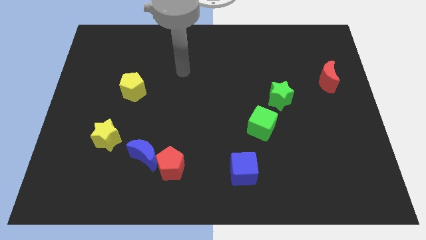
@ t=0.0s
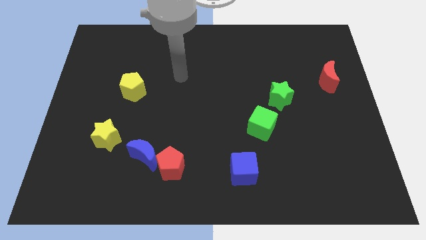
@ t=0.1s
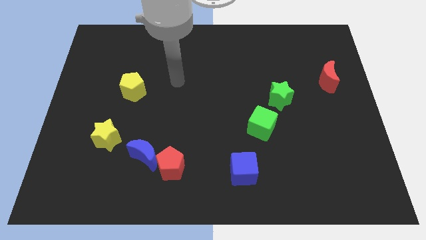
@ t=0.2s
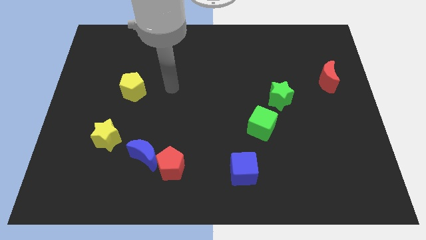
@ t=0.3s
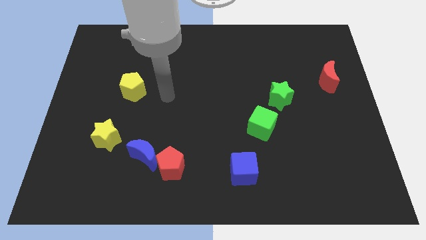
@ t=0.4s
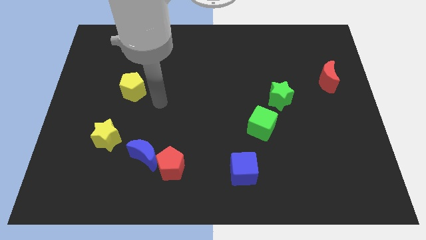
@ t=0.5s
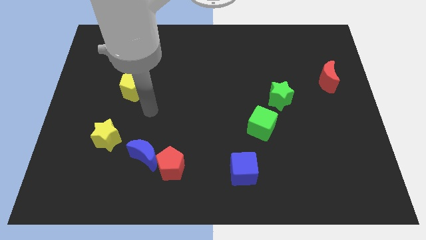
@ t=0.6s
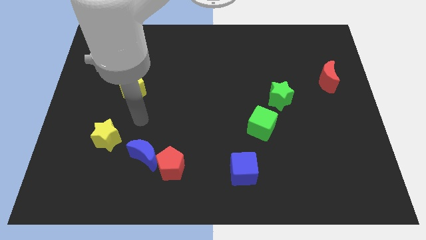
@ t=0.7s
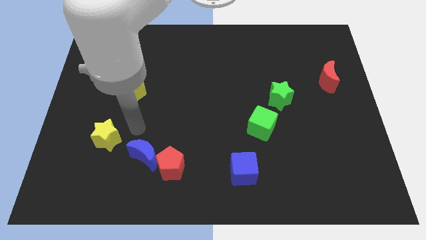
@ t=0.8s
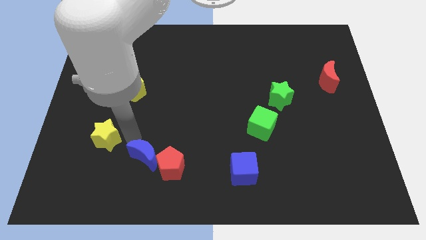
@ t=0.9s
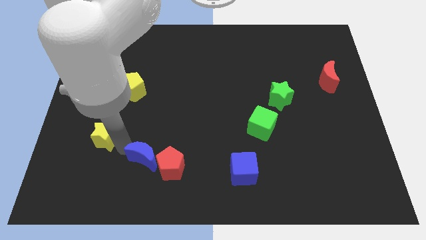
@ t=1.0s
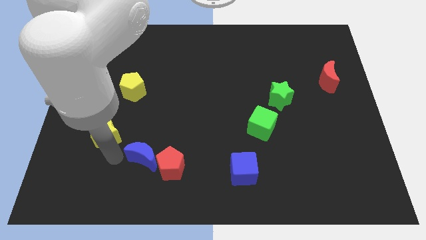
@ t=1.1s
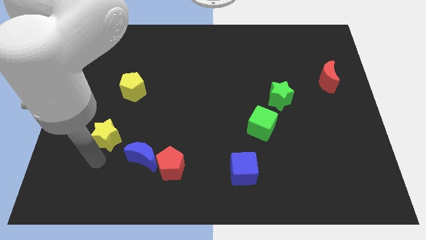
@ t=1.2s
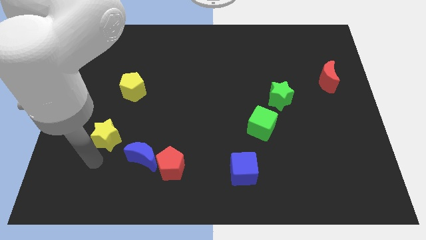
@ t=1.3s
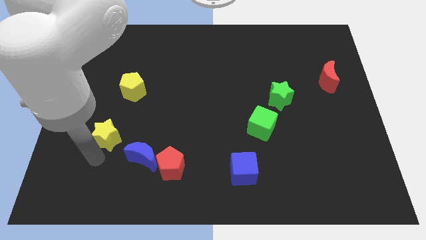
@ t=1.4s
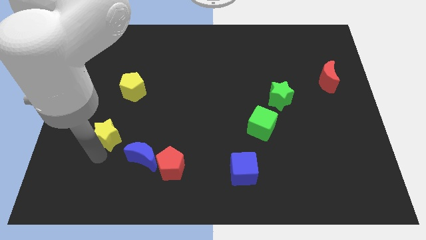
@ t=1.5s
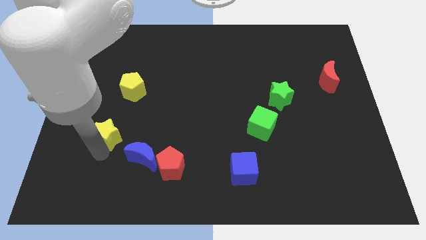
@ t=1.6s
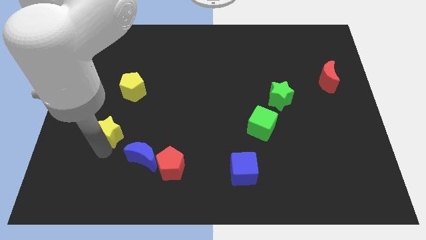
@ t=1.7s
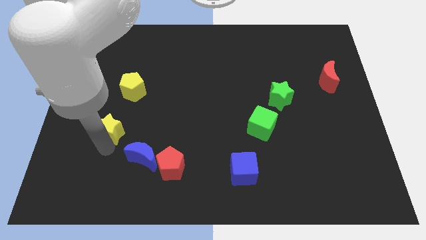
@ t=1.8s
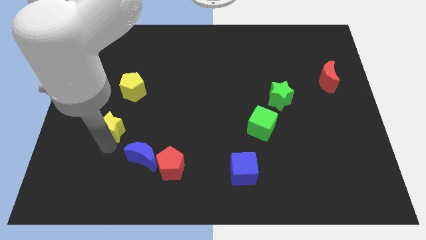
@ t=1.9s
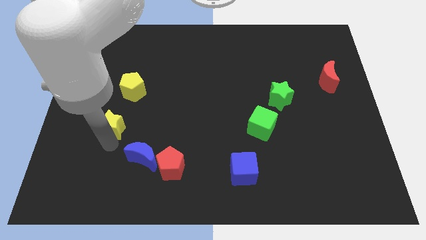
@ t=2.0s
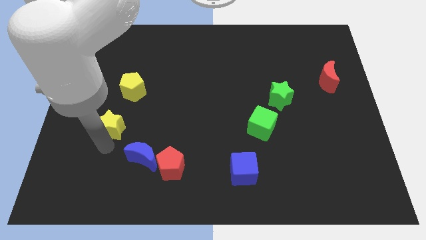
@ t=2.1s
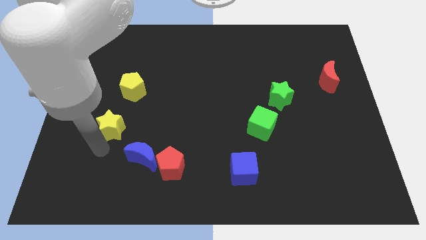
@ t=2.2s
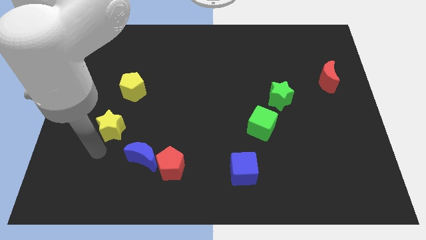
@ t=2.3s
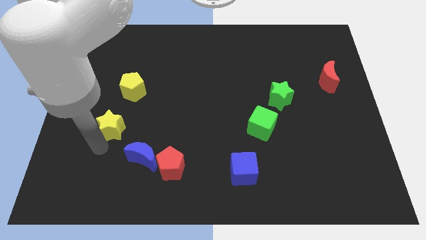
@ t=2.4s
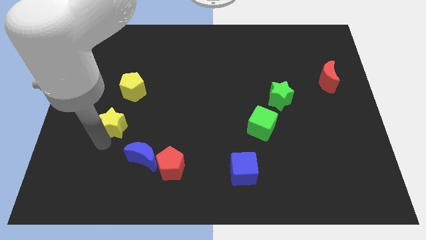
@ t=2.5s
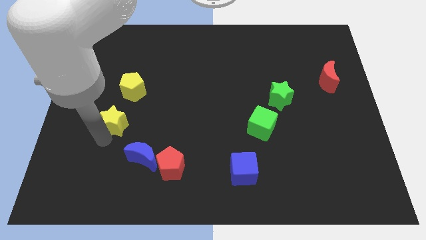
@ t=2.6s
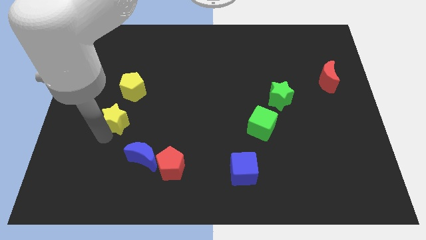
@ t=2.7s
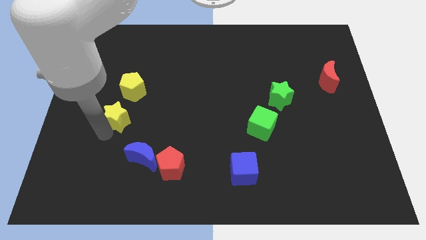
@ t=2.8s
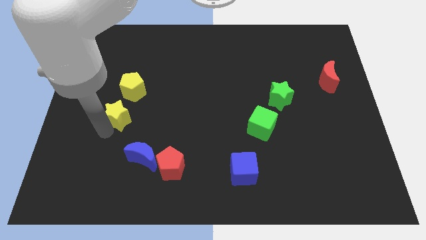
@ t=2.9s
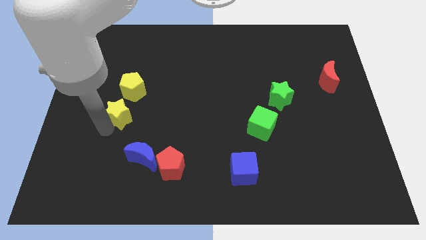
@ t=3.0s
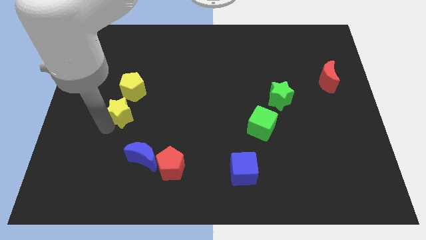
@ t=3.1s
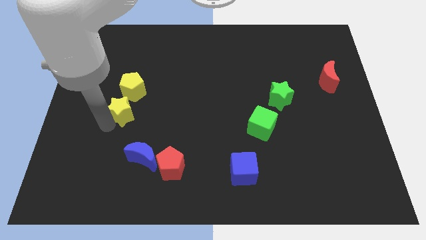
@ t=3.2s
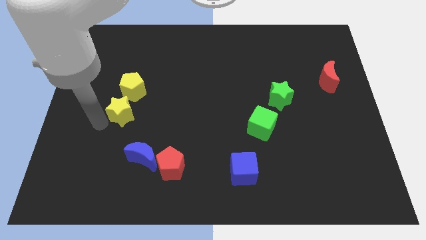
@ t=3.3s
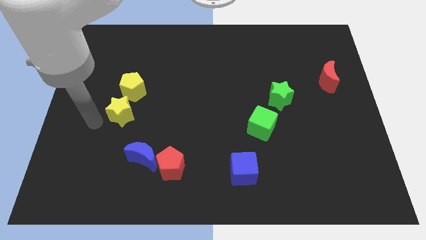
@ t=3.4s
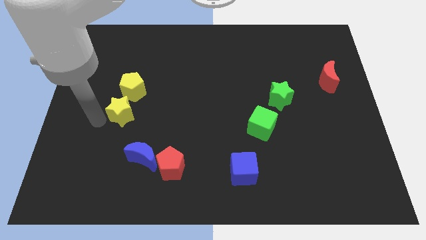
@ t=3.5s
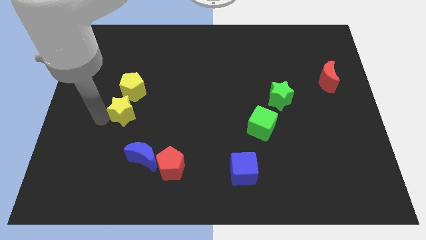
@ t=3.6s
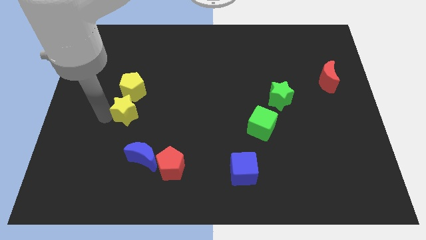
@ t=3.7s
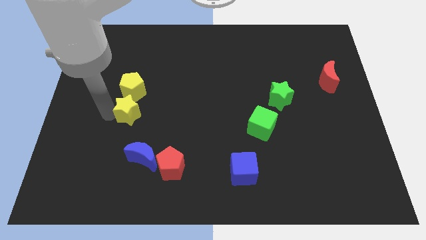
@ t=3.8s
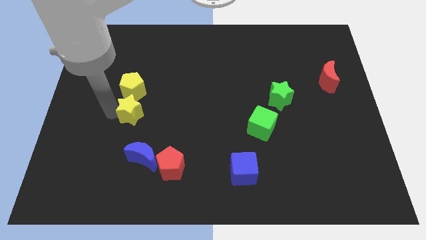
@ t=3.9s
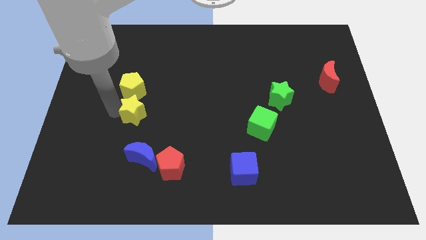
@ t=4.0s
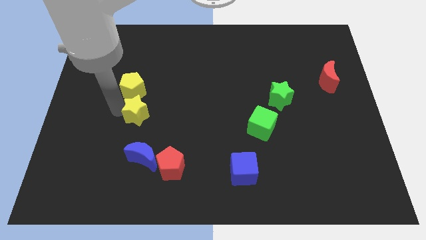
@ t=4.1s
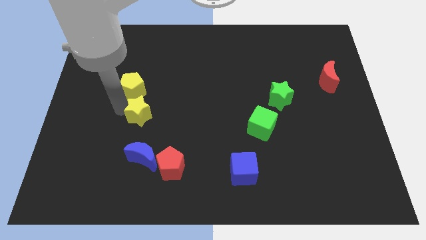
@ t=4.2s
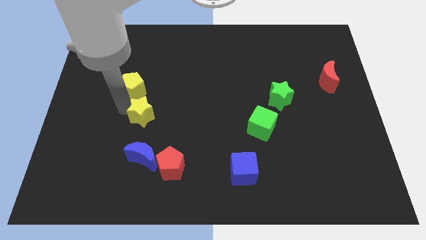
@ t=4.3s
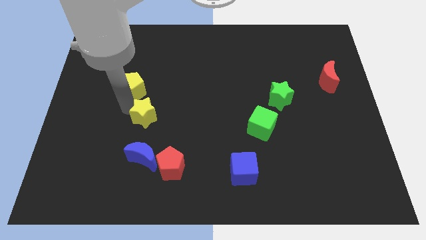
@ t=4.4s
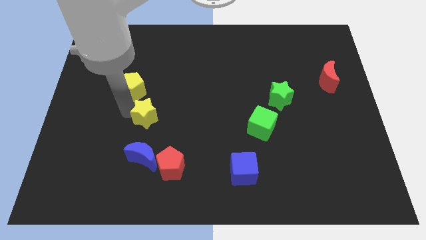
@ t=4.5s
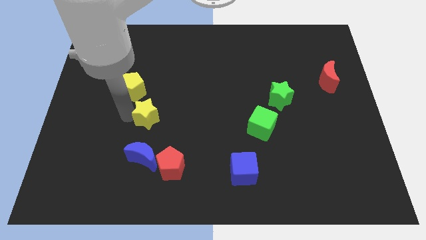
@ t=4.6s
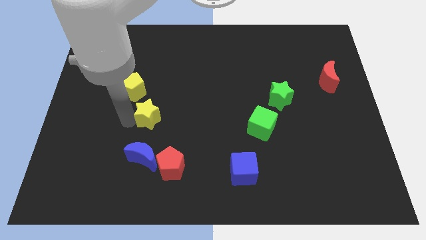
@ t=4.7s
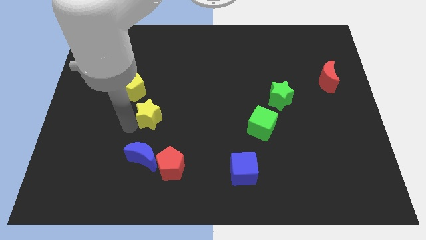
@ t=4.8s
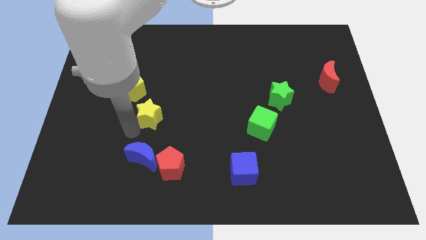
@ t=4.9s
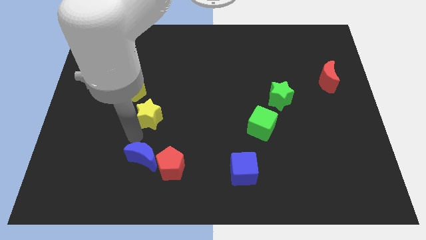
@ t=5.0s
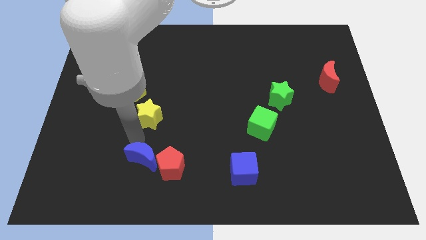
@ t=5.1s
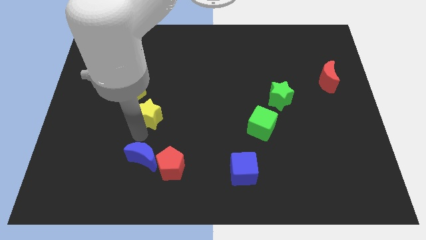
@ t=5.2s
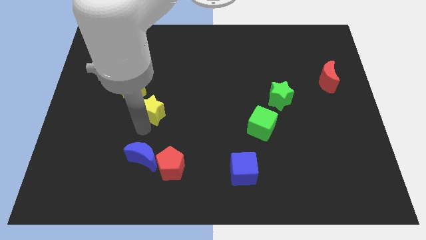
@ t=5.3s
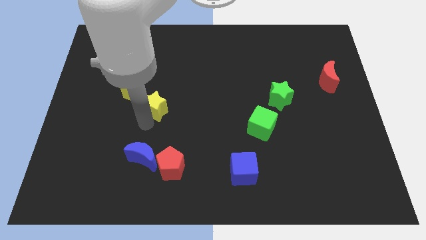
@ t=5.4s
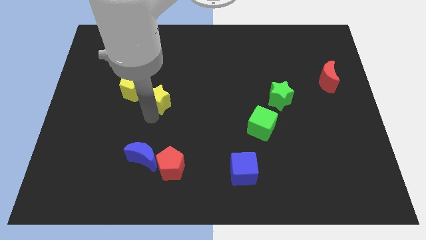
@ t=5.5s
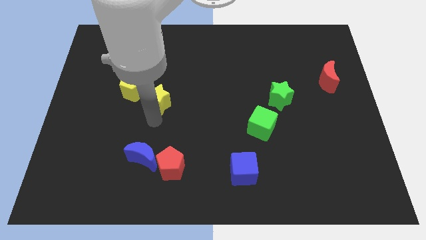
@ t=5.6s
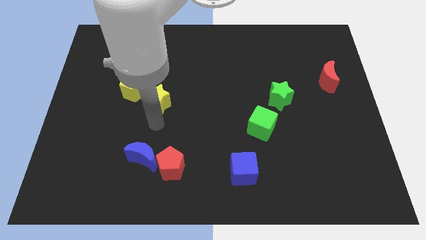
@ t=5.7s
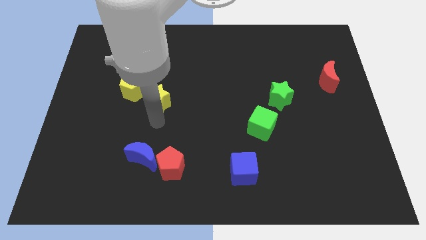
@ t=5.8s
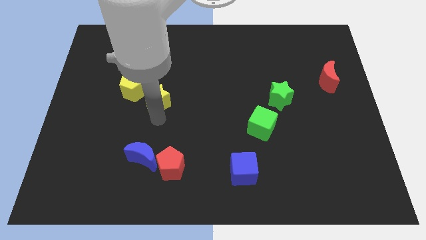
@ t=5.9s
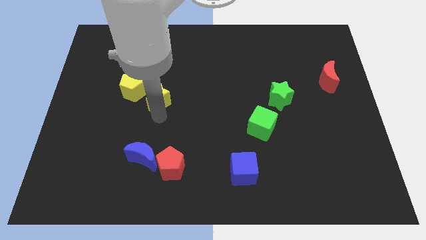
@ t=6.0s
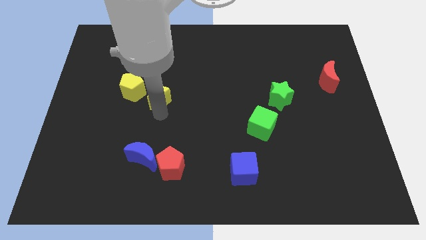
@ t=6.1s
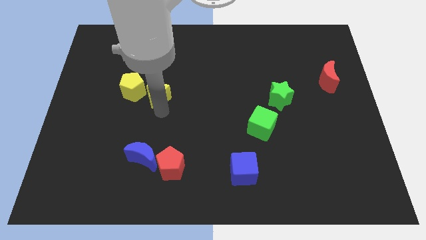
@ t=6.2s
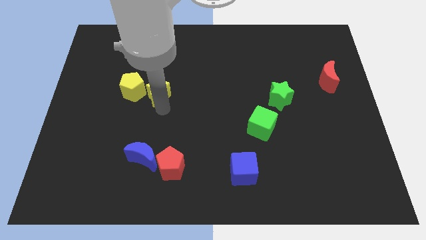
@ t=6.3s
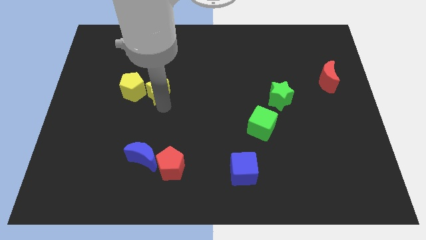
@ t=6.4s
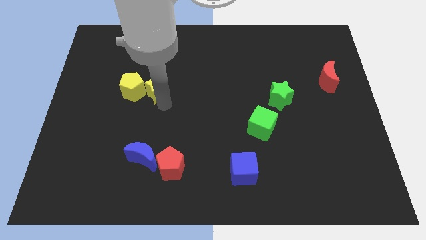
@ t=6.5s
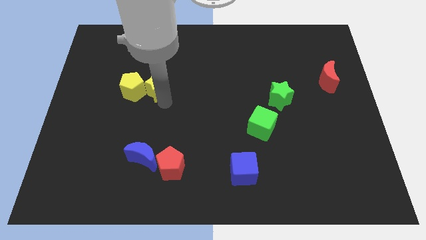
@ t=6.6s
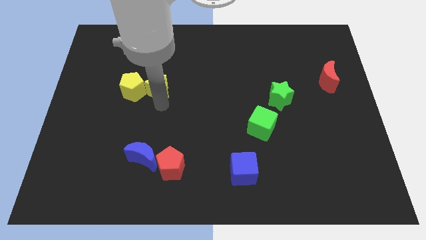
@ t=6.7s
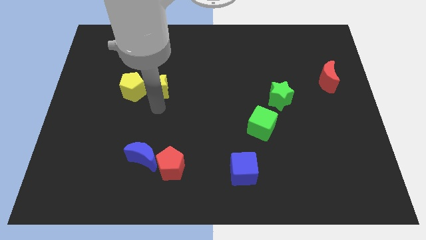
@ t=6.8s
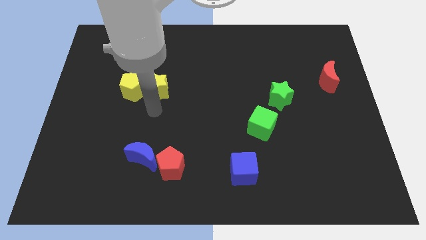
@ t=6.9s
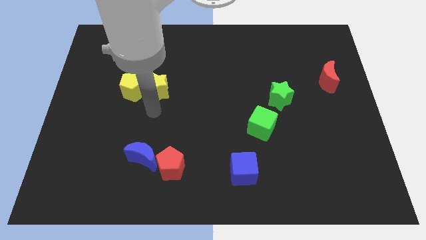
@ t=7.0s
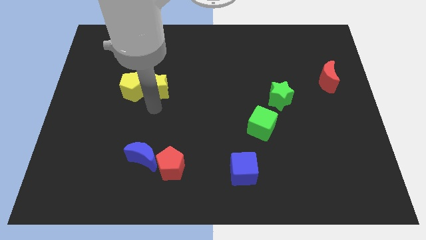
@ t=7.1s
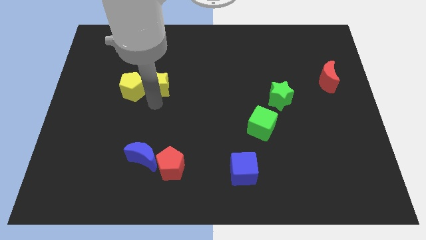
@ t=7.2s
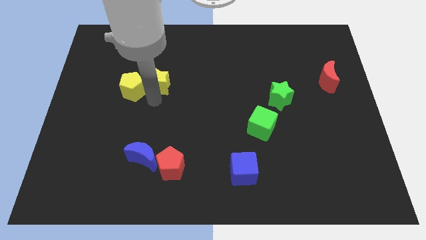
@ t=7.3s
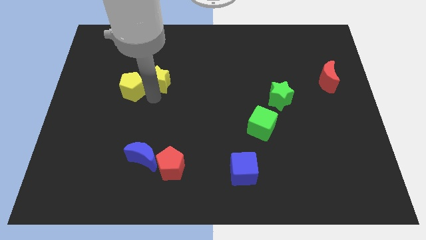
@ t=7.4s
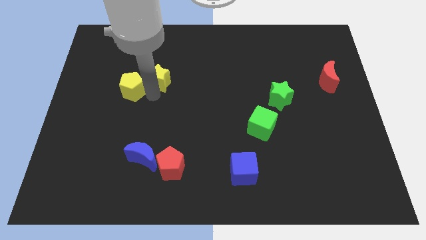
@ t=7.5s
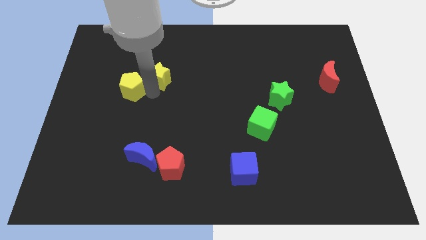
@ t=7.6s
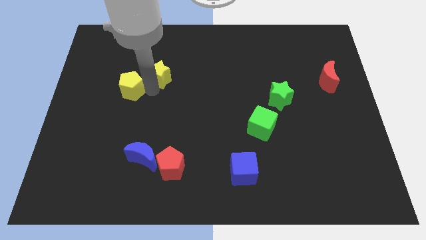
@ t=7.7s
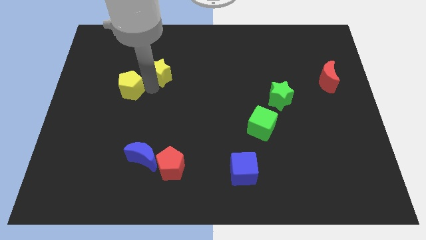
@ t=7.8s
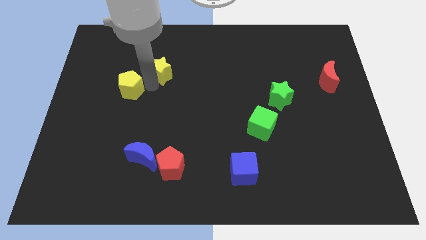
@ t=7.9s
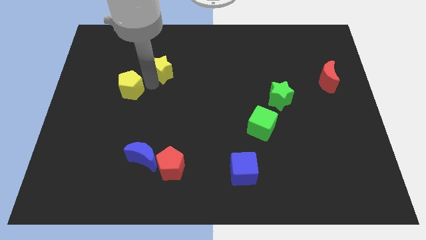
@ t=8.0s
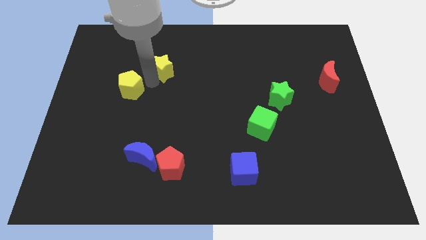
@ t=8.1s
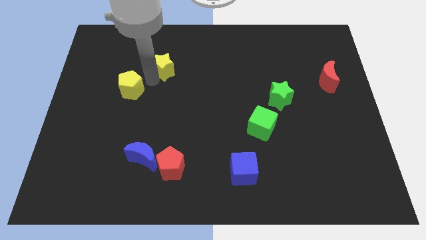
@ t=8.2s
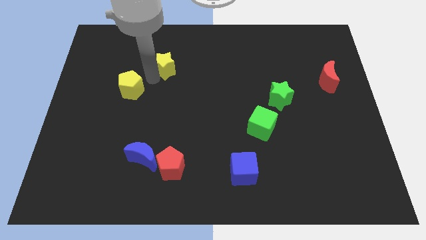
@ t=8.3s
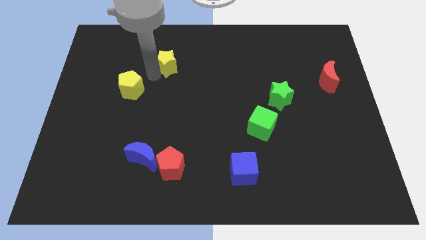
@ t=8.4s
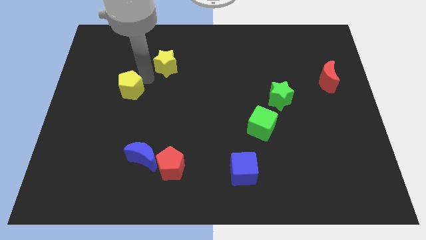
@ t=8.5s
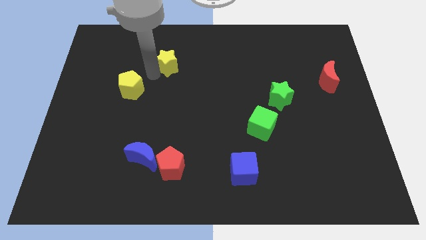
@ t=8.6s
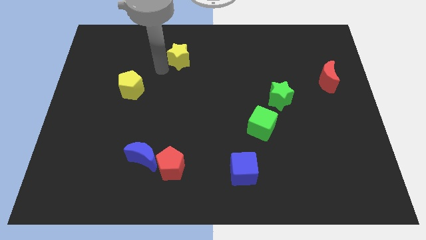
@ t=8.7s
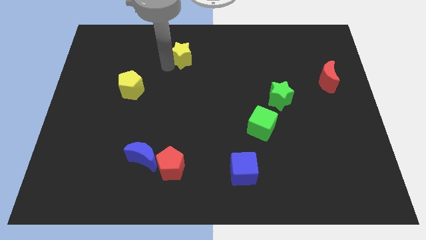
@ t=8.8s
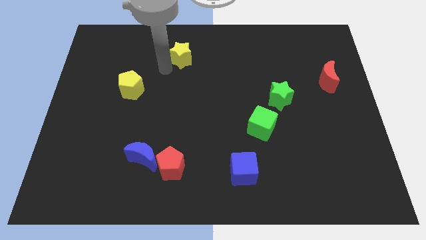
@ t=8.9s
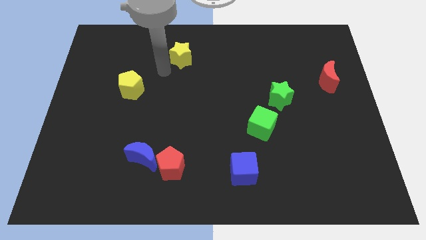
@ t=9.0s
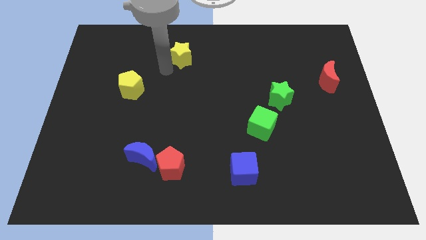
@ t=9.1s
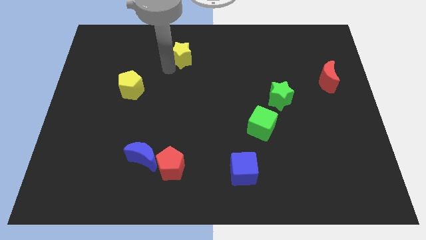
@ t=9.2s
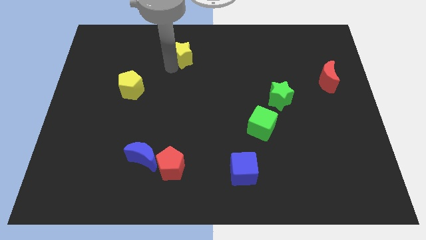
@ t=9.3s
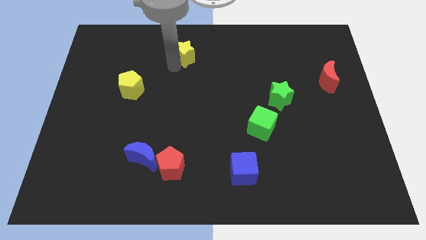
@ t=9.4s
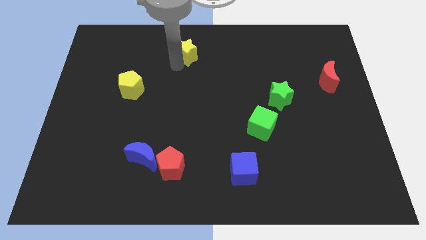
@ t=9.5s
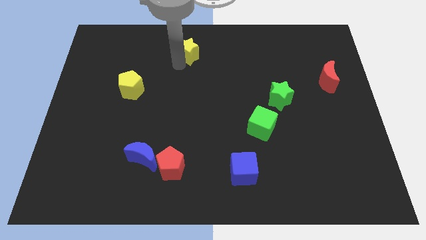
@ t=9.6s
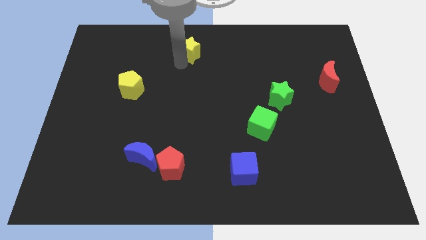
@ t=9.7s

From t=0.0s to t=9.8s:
push the yellow star to the towards your base
